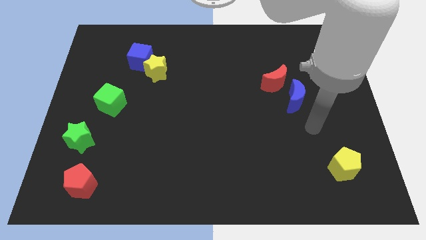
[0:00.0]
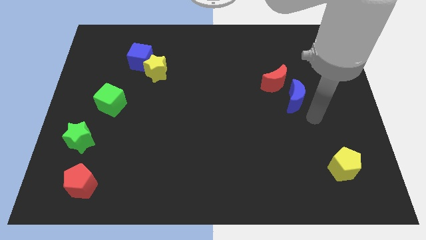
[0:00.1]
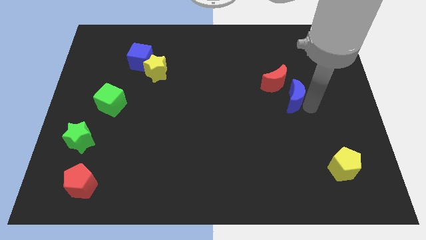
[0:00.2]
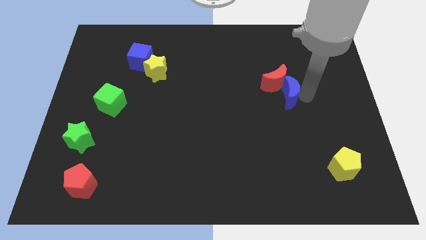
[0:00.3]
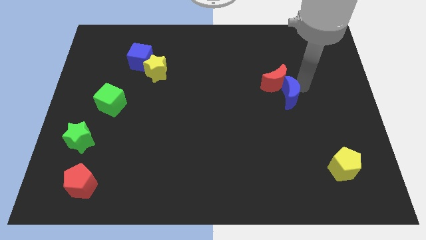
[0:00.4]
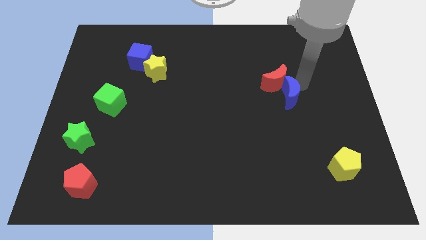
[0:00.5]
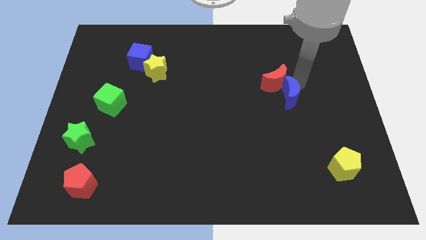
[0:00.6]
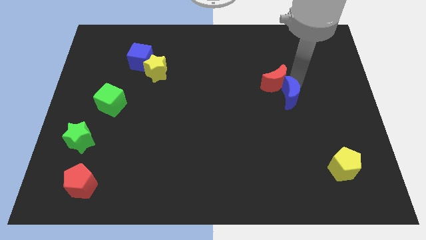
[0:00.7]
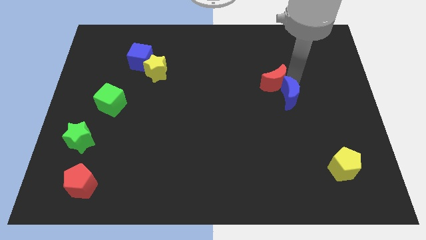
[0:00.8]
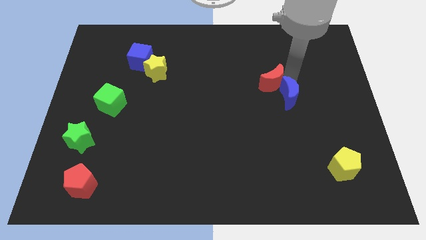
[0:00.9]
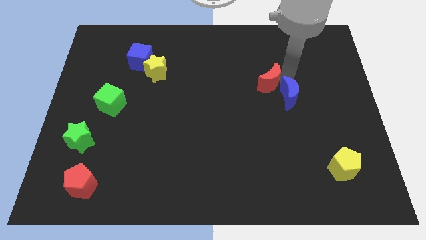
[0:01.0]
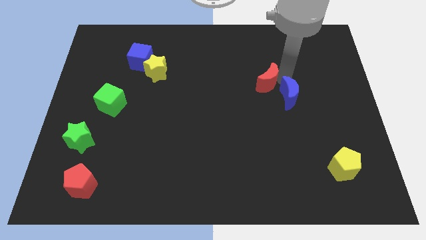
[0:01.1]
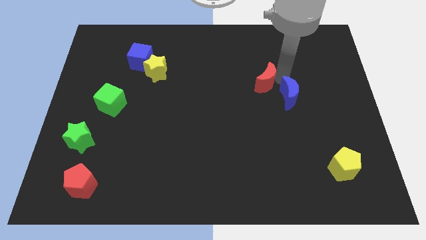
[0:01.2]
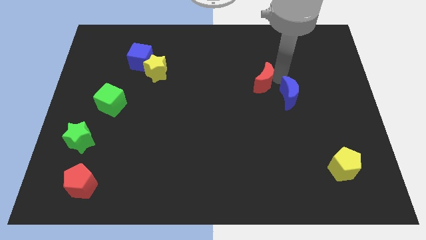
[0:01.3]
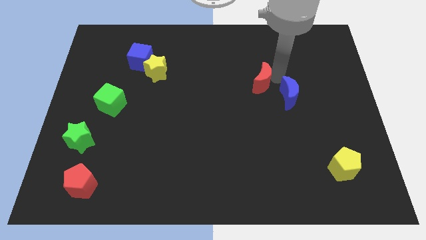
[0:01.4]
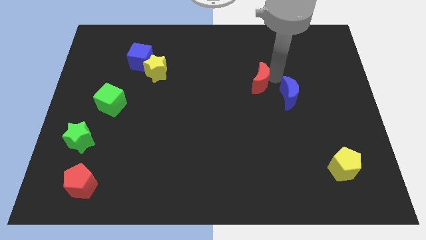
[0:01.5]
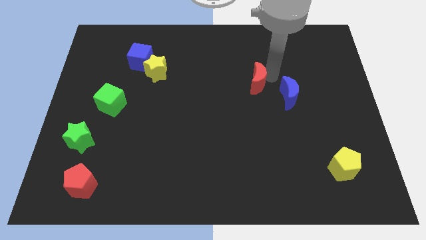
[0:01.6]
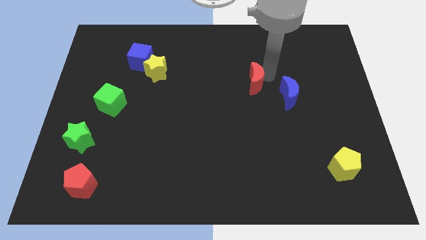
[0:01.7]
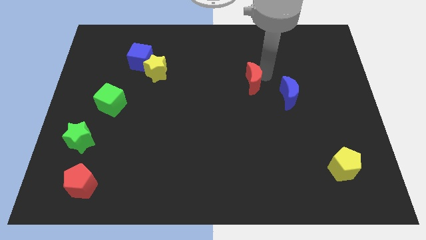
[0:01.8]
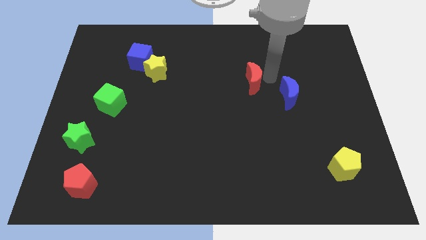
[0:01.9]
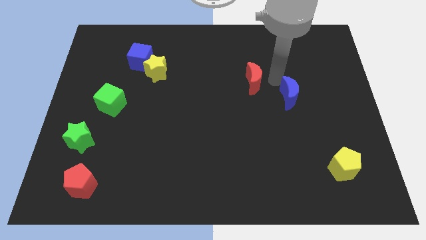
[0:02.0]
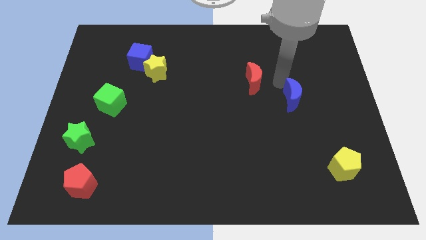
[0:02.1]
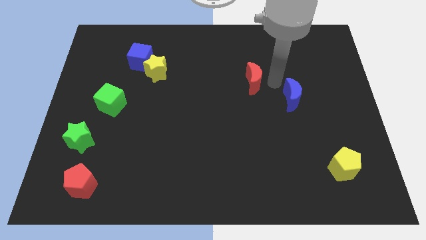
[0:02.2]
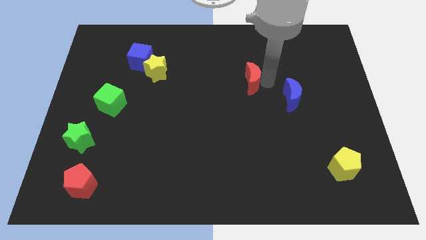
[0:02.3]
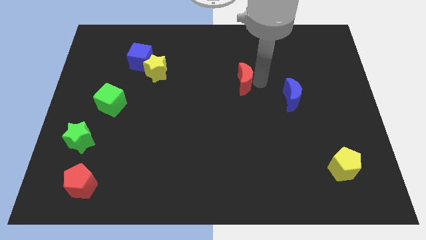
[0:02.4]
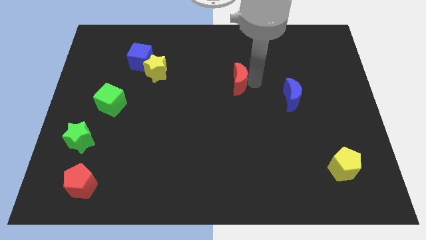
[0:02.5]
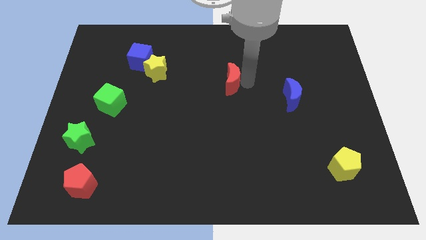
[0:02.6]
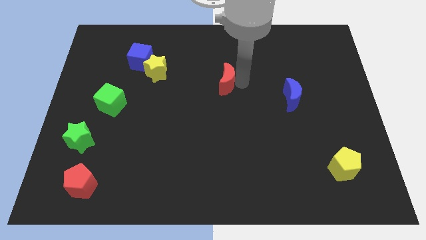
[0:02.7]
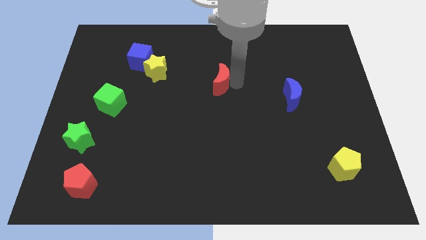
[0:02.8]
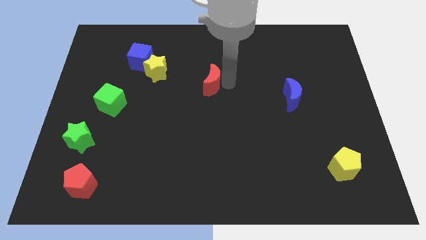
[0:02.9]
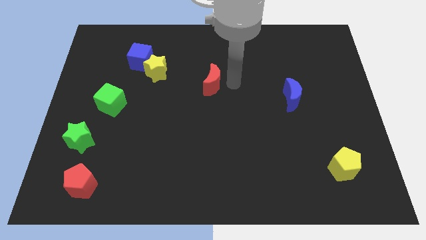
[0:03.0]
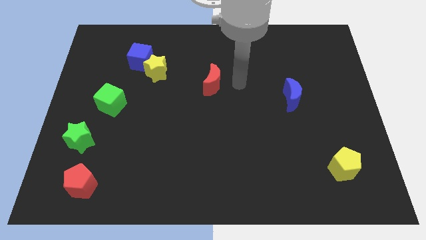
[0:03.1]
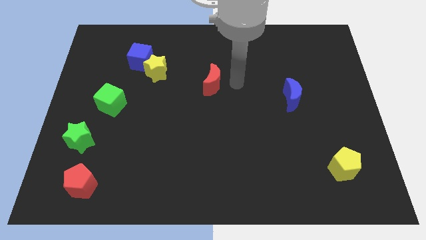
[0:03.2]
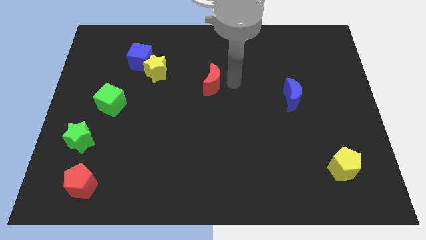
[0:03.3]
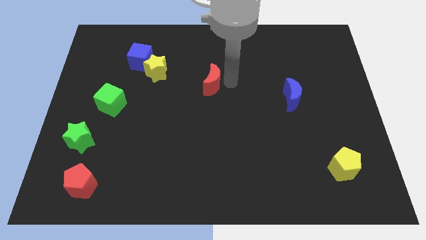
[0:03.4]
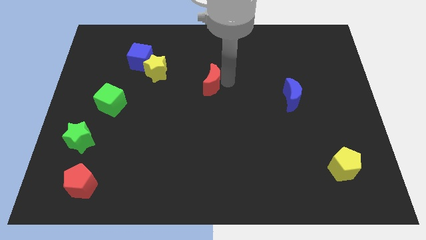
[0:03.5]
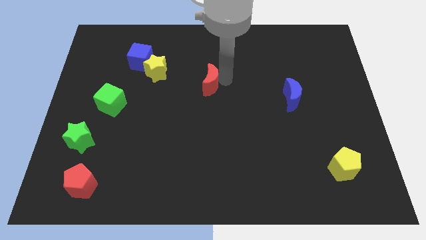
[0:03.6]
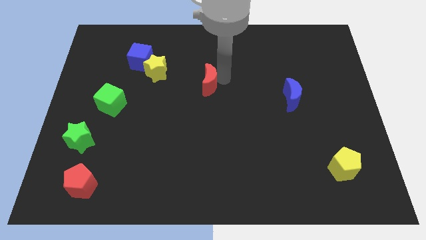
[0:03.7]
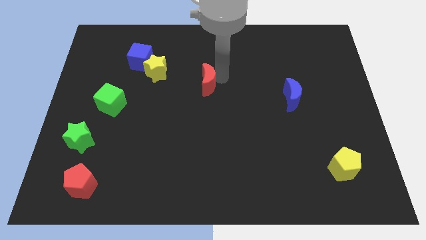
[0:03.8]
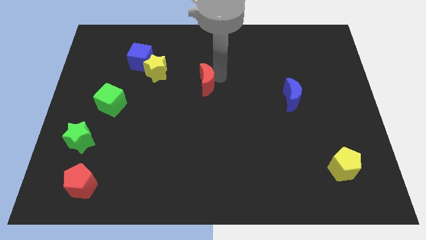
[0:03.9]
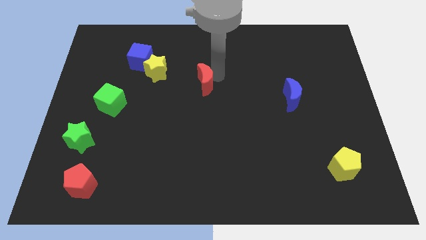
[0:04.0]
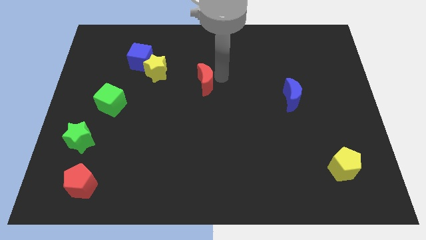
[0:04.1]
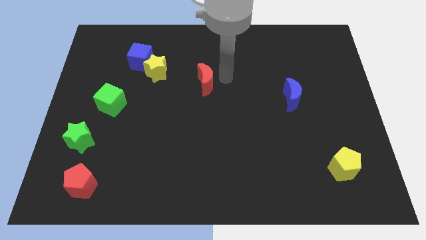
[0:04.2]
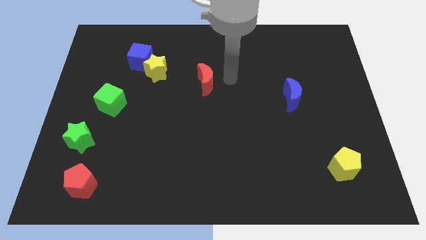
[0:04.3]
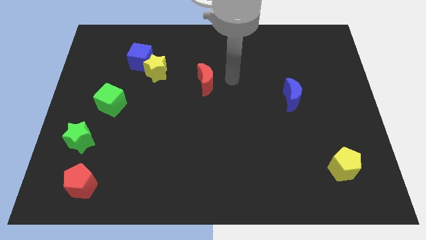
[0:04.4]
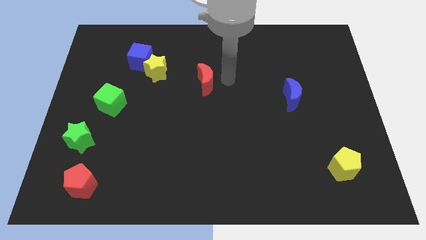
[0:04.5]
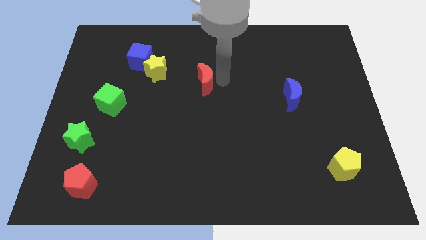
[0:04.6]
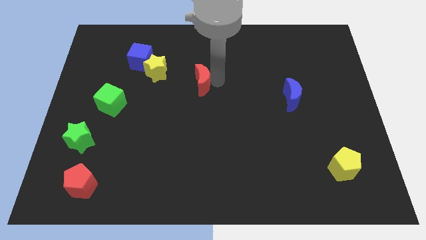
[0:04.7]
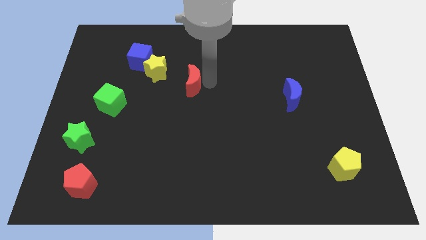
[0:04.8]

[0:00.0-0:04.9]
slide the red moon to the left

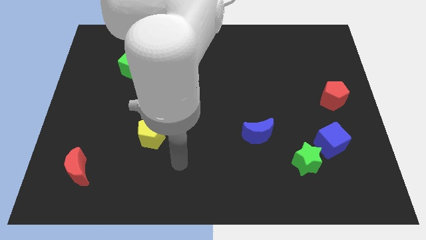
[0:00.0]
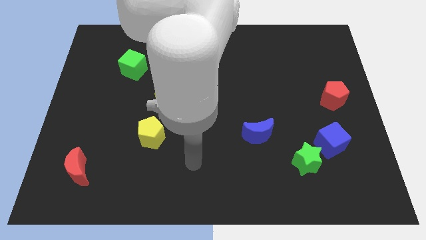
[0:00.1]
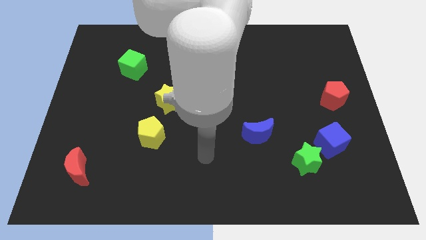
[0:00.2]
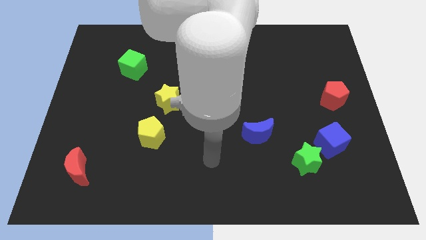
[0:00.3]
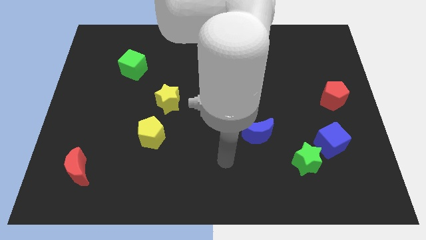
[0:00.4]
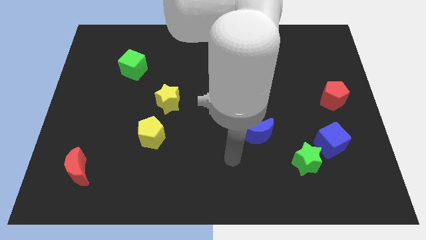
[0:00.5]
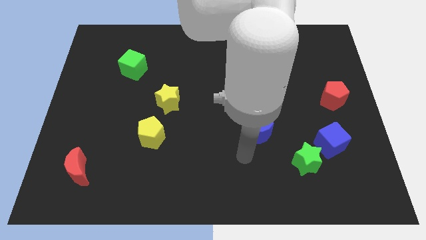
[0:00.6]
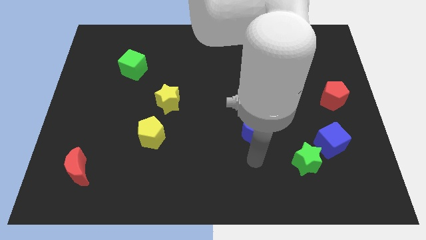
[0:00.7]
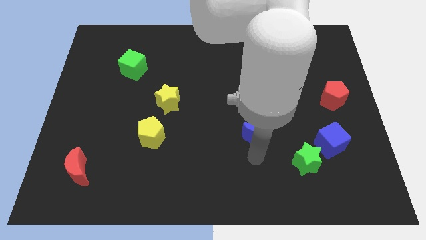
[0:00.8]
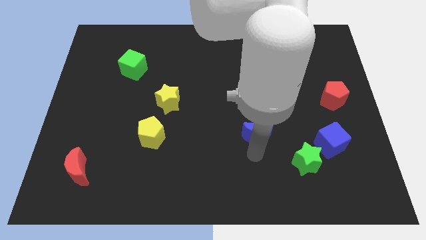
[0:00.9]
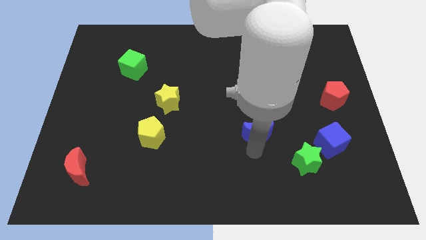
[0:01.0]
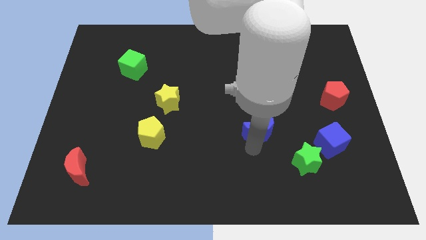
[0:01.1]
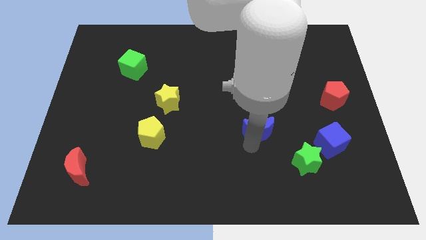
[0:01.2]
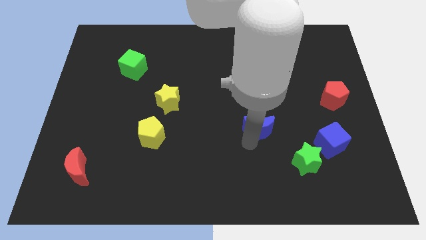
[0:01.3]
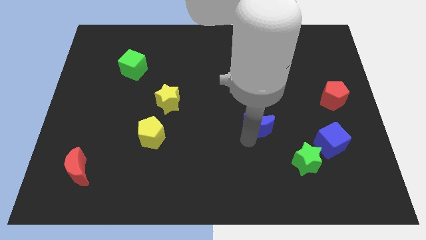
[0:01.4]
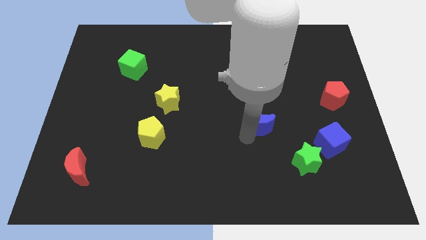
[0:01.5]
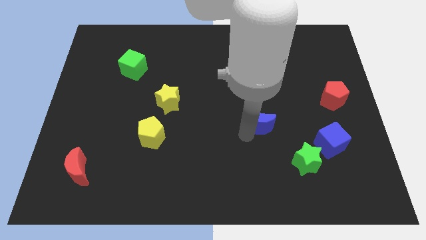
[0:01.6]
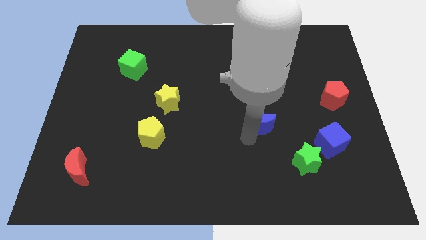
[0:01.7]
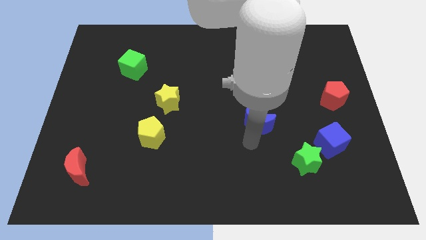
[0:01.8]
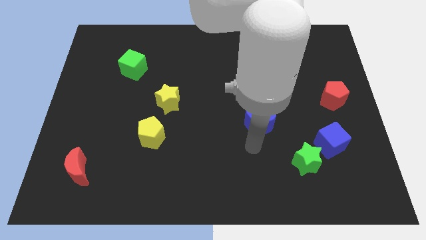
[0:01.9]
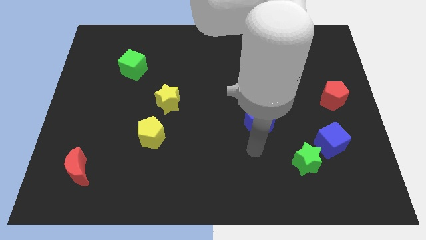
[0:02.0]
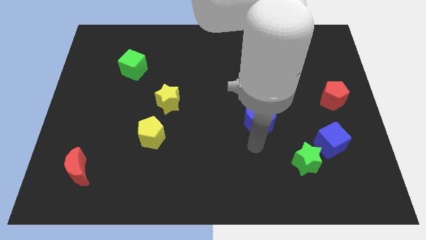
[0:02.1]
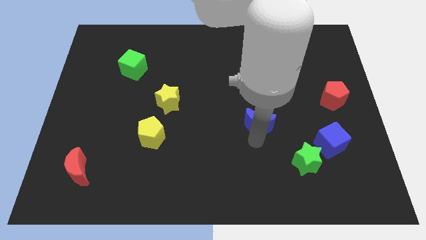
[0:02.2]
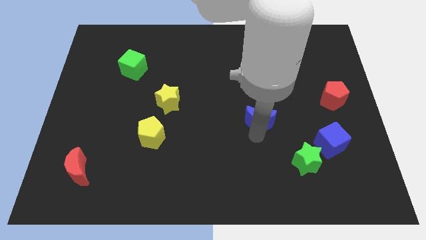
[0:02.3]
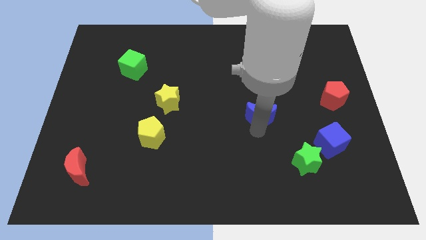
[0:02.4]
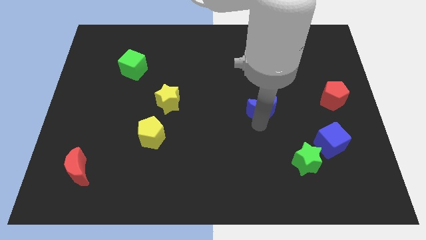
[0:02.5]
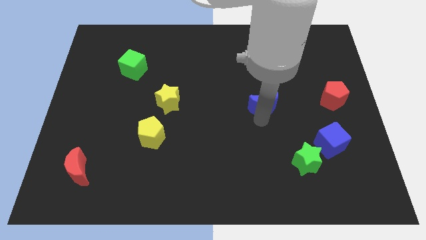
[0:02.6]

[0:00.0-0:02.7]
slightly slide the blue moon upwards

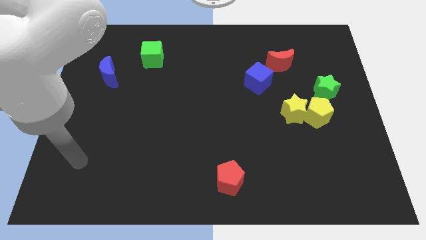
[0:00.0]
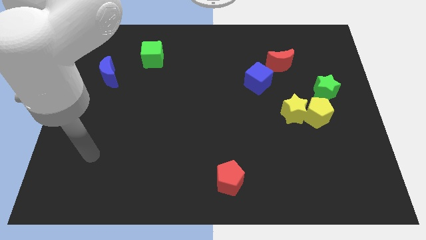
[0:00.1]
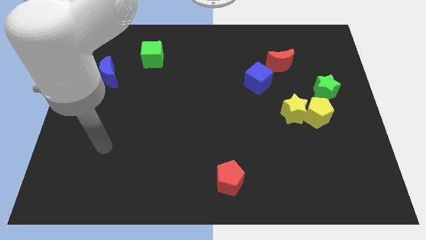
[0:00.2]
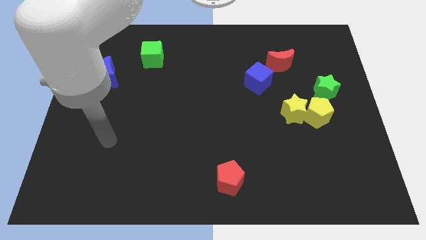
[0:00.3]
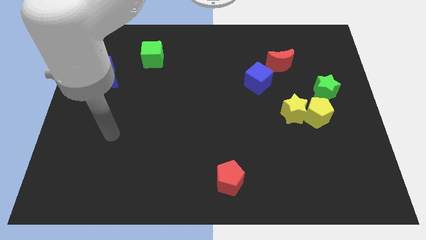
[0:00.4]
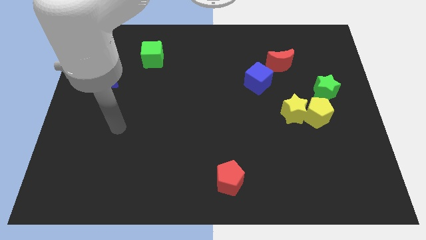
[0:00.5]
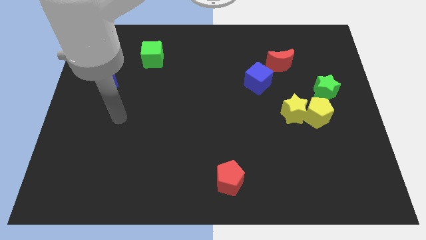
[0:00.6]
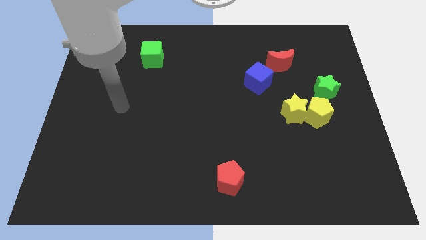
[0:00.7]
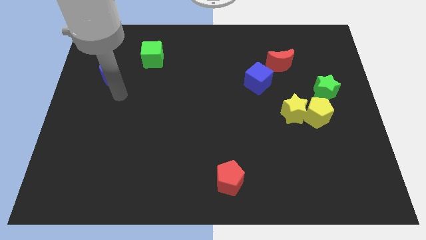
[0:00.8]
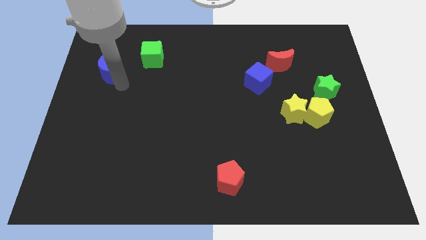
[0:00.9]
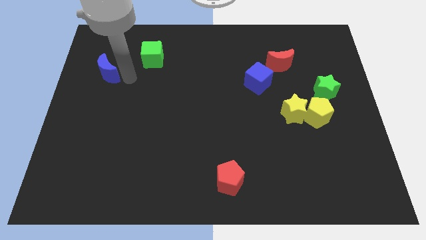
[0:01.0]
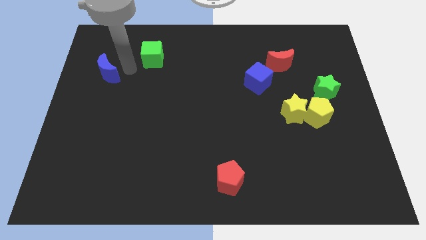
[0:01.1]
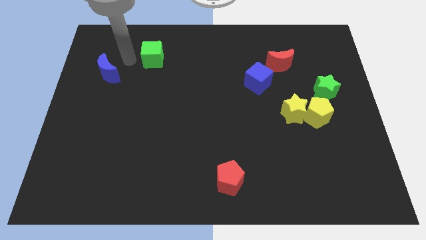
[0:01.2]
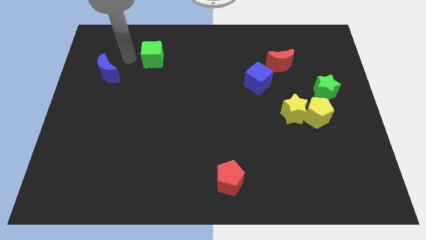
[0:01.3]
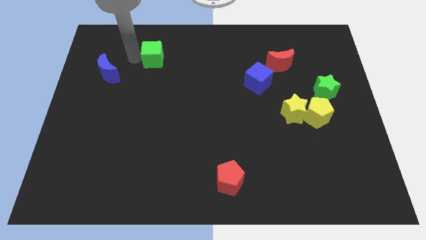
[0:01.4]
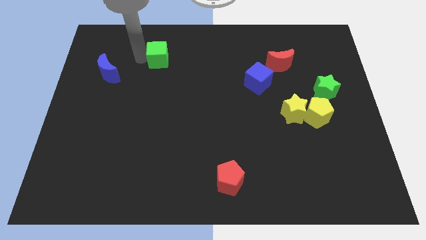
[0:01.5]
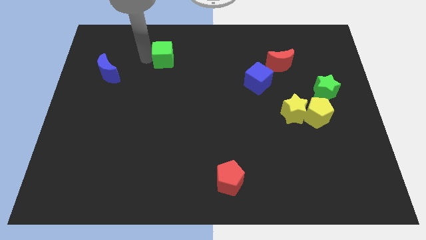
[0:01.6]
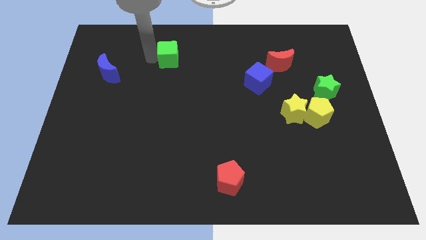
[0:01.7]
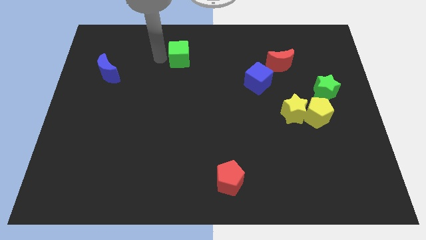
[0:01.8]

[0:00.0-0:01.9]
slide the green cube a little bit to the right
